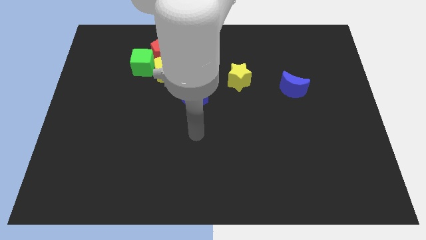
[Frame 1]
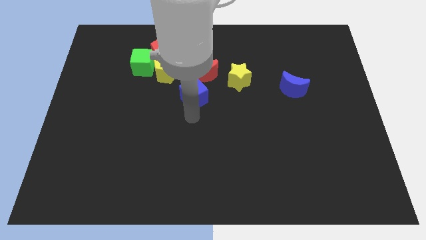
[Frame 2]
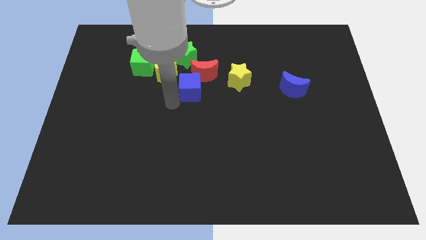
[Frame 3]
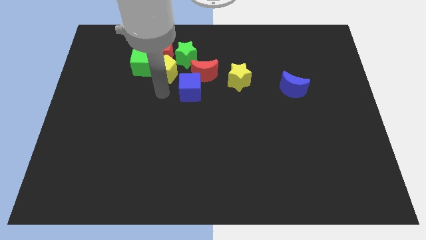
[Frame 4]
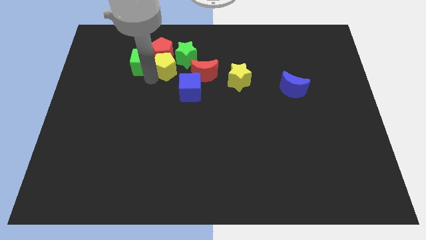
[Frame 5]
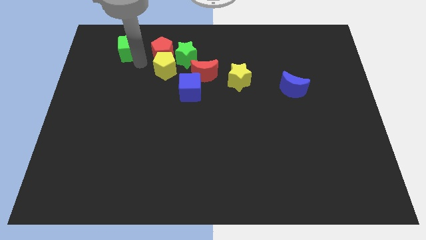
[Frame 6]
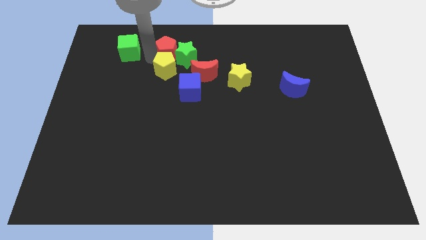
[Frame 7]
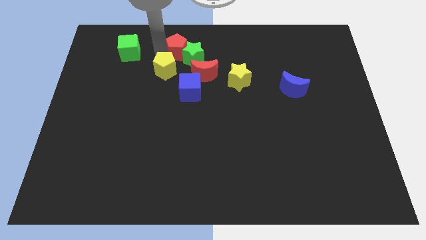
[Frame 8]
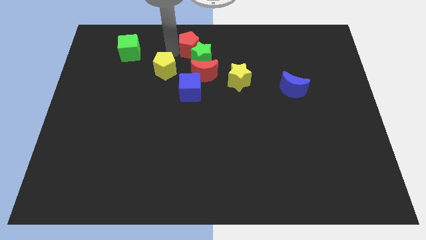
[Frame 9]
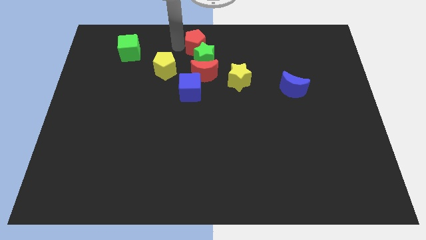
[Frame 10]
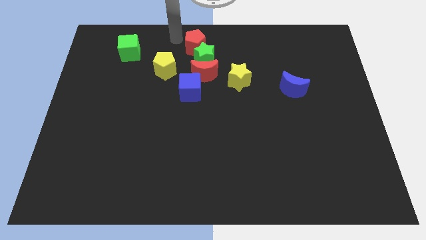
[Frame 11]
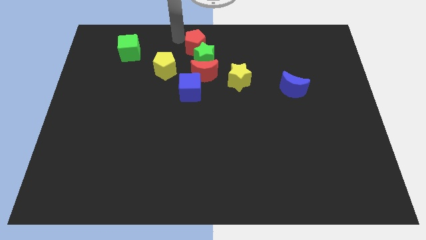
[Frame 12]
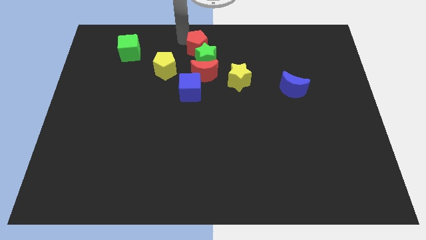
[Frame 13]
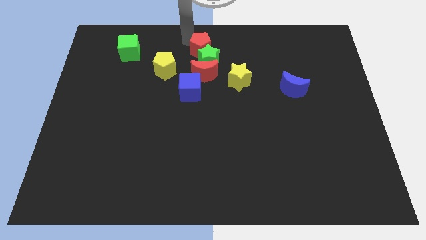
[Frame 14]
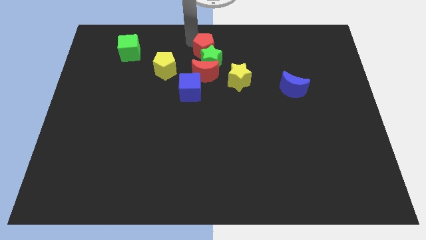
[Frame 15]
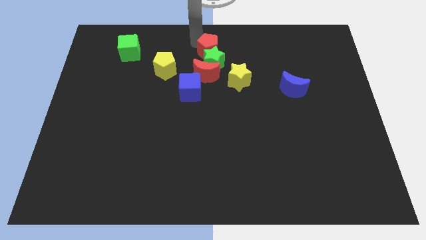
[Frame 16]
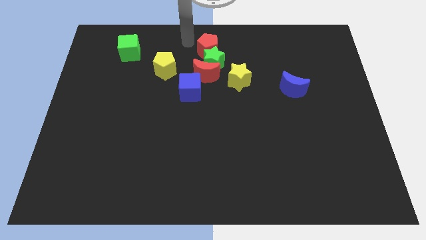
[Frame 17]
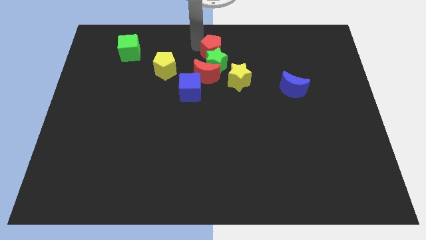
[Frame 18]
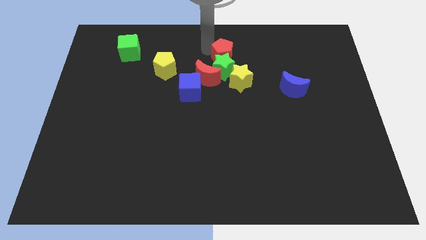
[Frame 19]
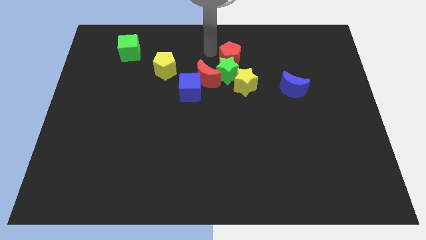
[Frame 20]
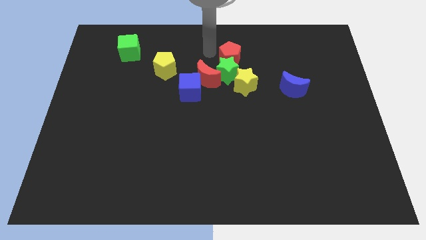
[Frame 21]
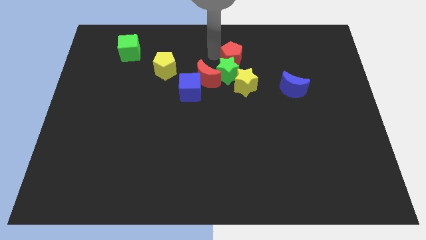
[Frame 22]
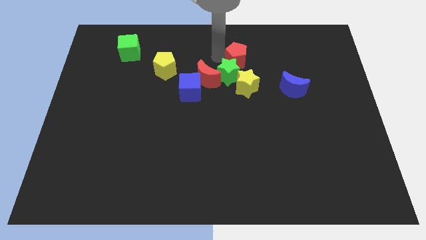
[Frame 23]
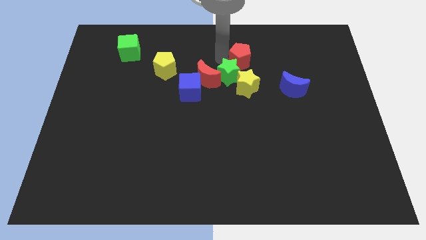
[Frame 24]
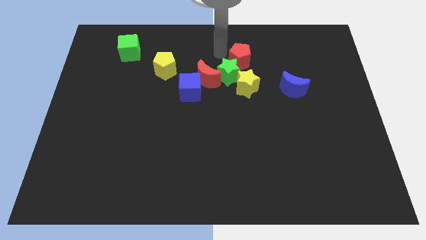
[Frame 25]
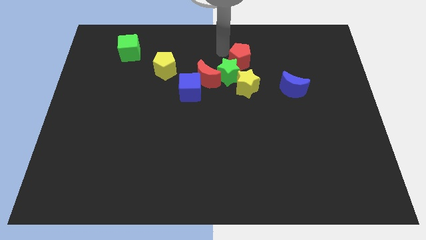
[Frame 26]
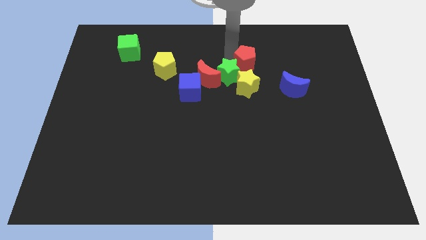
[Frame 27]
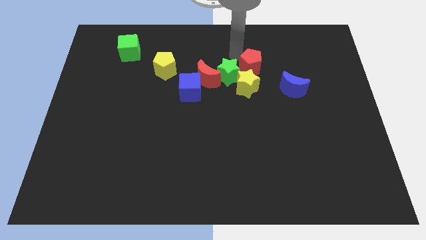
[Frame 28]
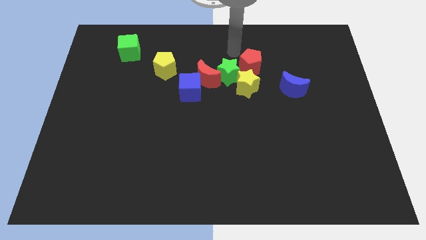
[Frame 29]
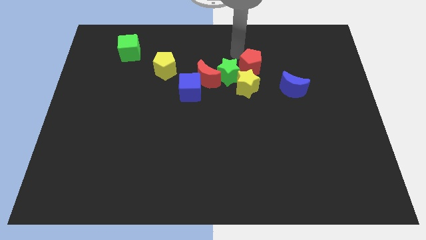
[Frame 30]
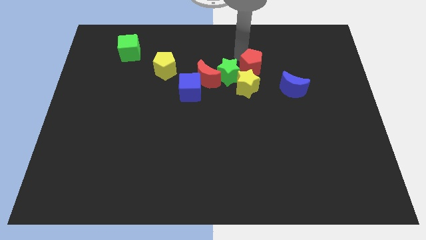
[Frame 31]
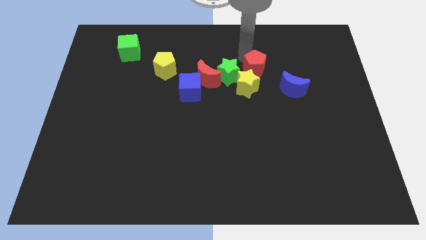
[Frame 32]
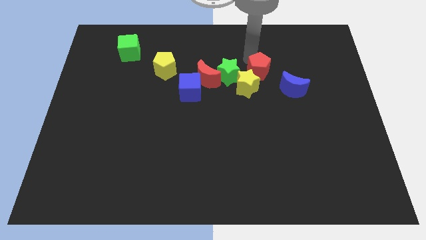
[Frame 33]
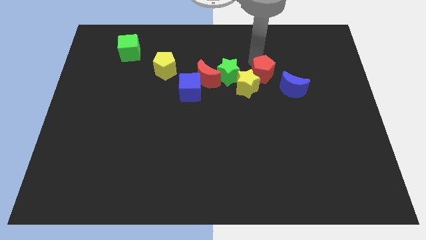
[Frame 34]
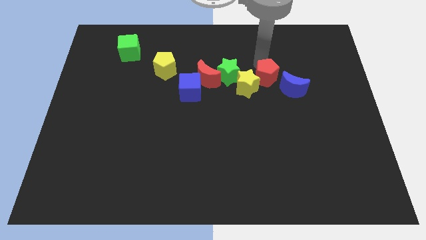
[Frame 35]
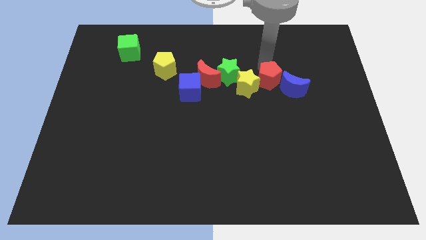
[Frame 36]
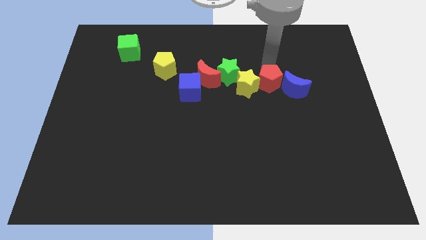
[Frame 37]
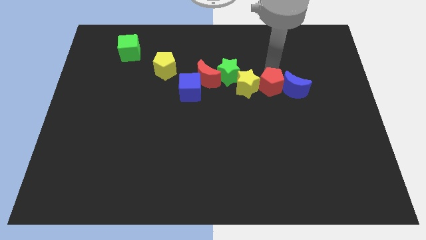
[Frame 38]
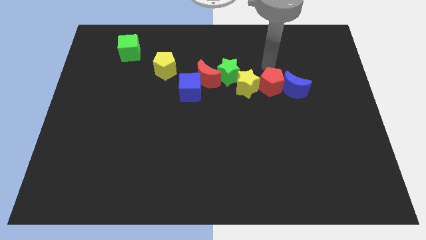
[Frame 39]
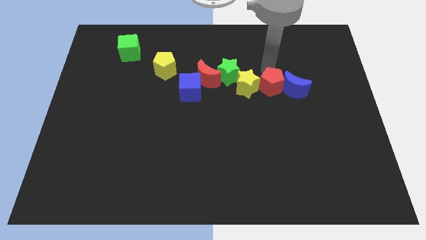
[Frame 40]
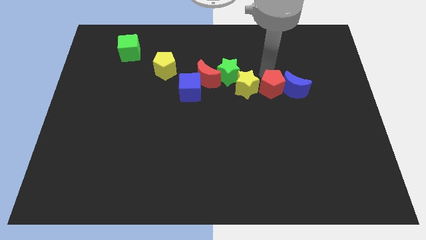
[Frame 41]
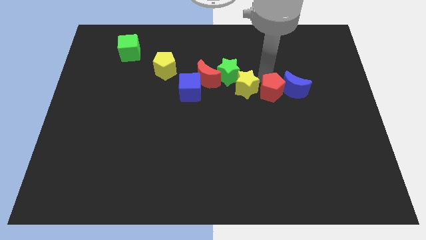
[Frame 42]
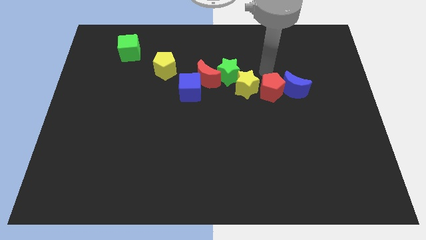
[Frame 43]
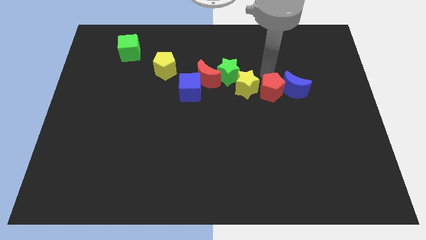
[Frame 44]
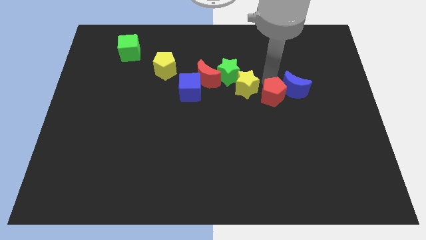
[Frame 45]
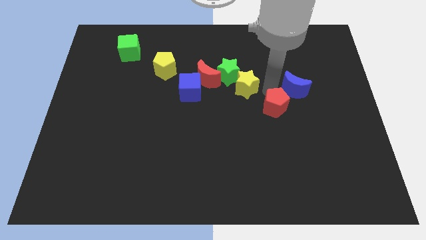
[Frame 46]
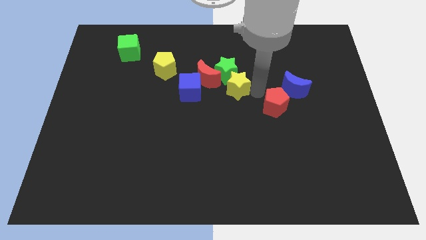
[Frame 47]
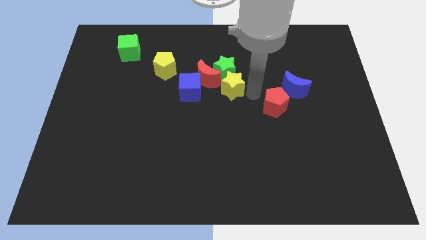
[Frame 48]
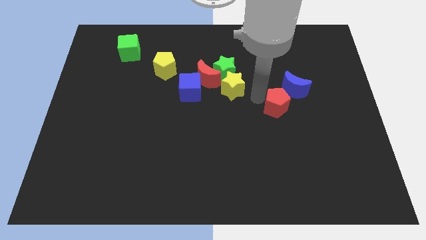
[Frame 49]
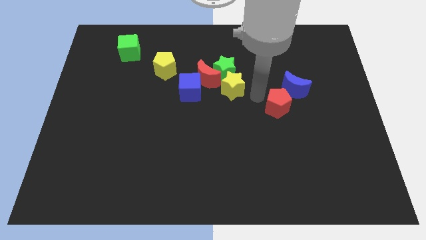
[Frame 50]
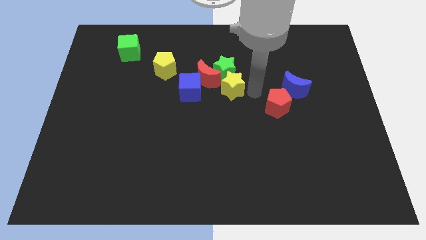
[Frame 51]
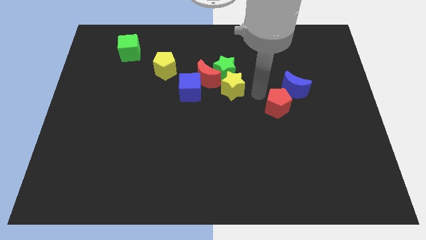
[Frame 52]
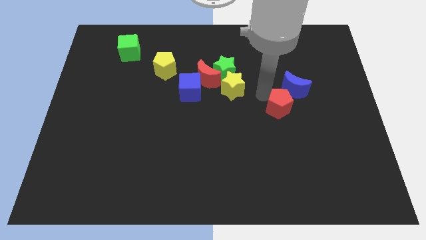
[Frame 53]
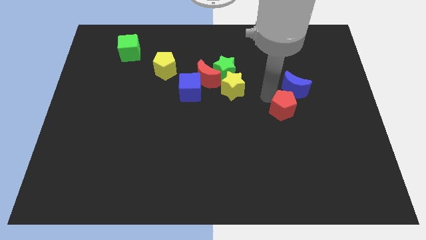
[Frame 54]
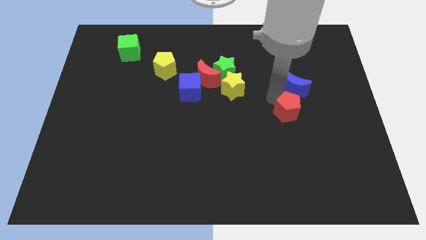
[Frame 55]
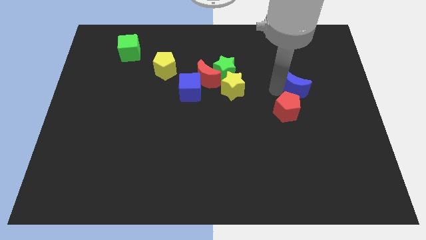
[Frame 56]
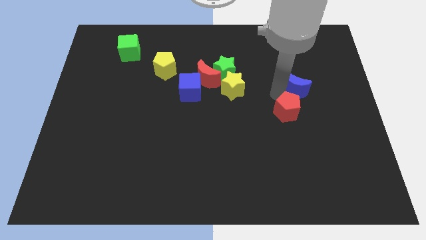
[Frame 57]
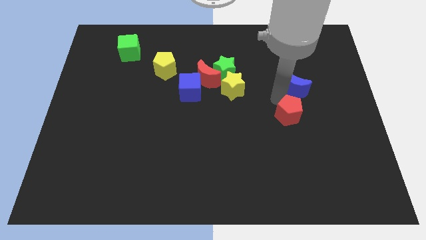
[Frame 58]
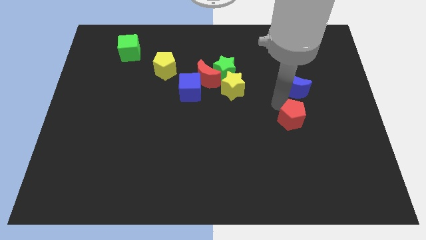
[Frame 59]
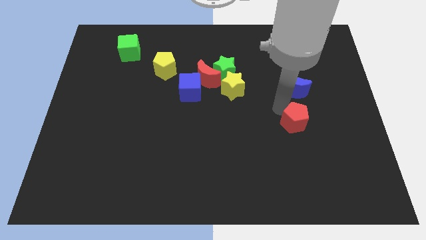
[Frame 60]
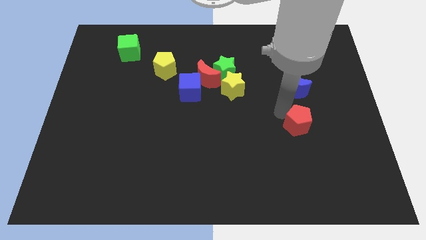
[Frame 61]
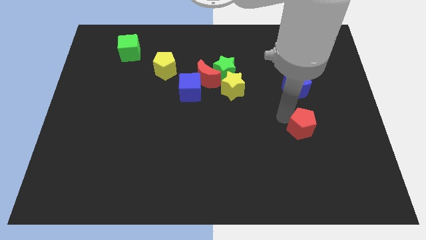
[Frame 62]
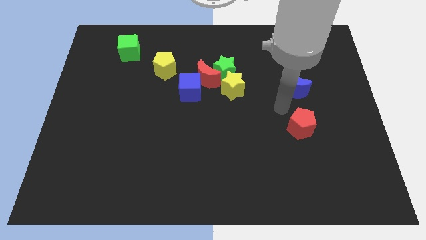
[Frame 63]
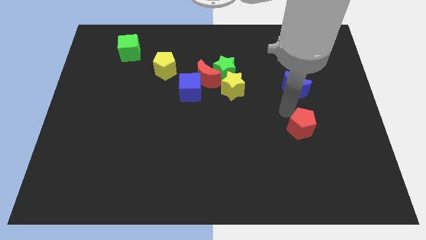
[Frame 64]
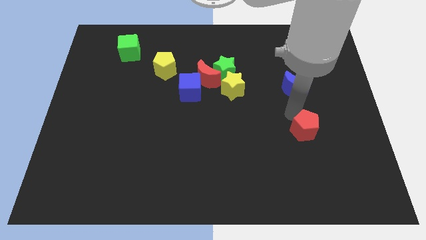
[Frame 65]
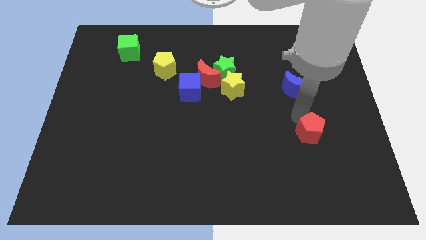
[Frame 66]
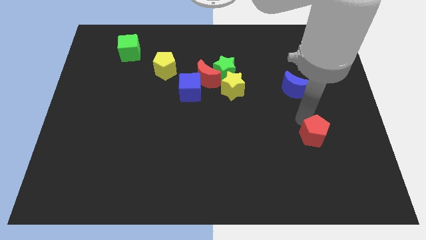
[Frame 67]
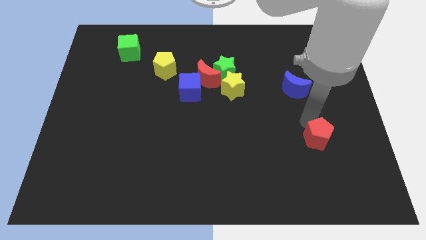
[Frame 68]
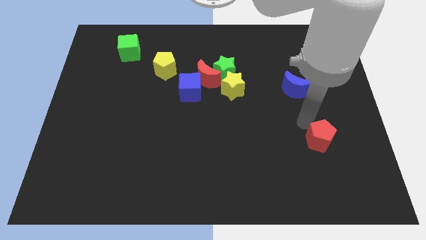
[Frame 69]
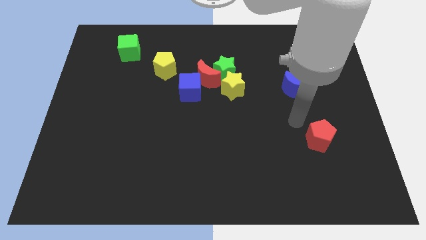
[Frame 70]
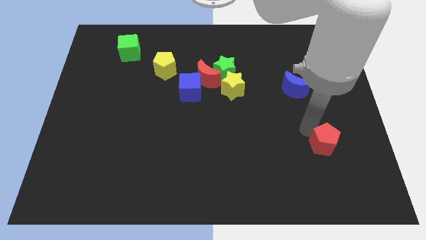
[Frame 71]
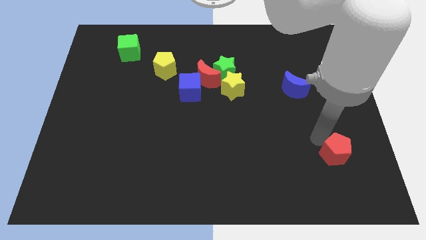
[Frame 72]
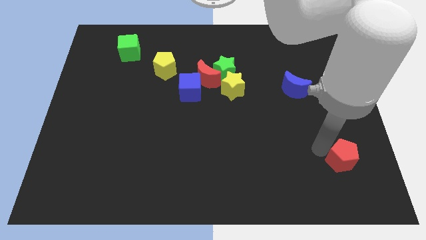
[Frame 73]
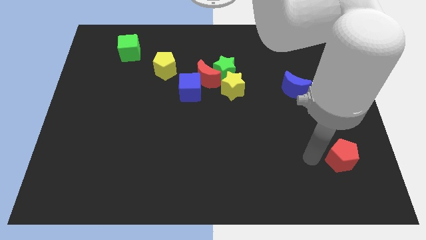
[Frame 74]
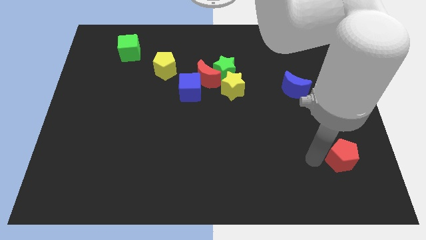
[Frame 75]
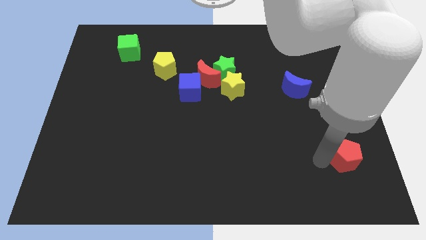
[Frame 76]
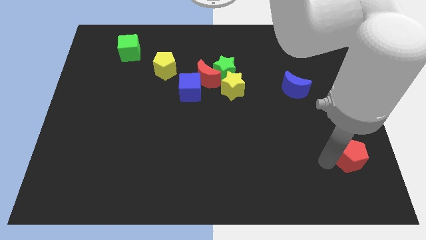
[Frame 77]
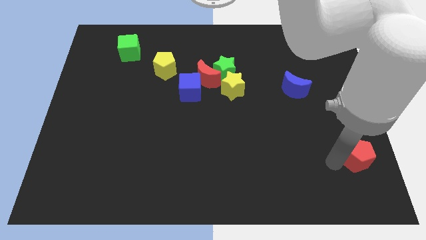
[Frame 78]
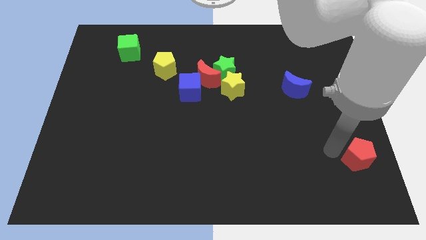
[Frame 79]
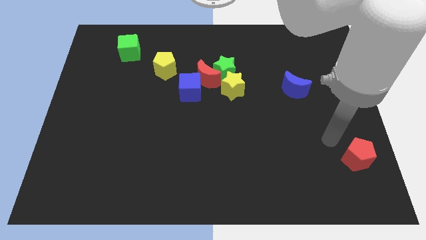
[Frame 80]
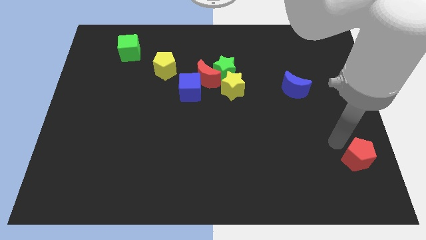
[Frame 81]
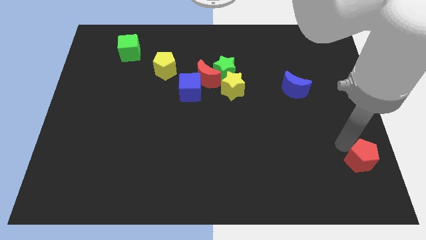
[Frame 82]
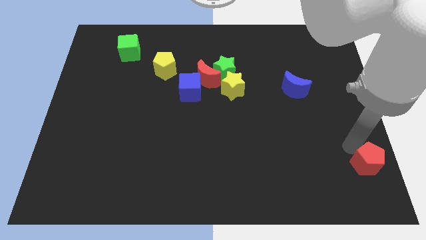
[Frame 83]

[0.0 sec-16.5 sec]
slide the red pentagon to the bottom right of the board
